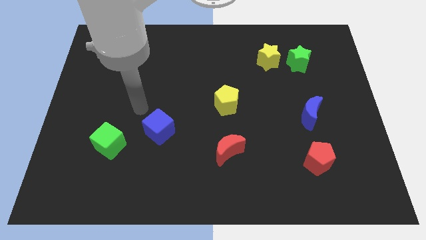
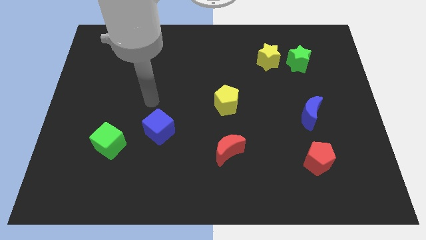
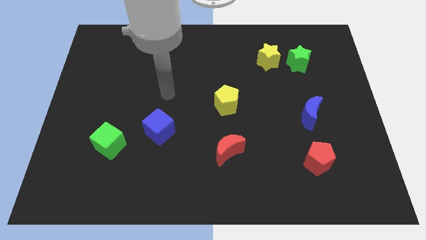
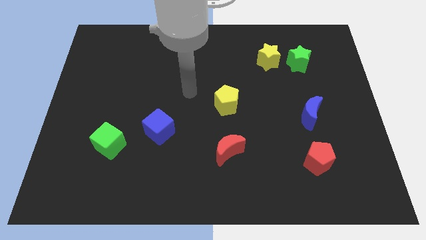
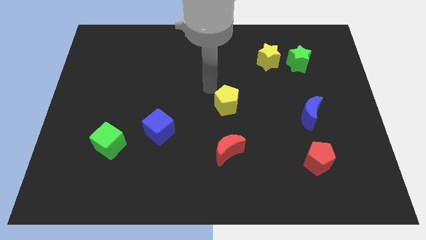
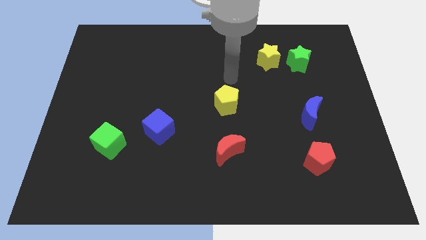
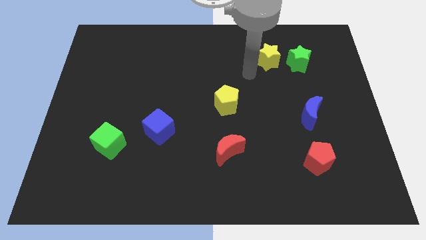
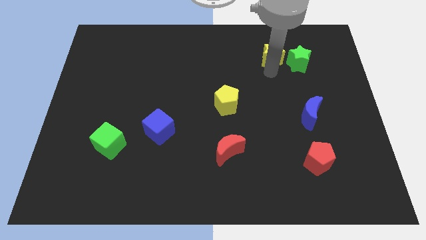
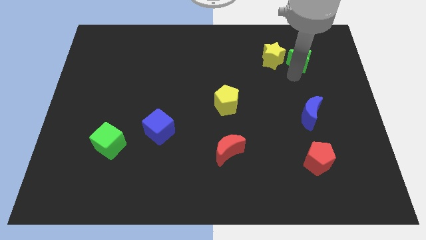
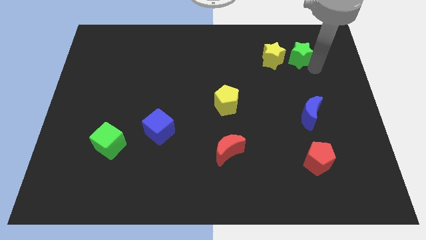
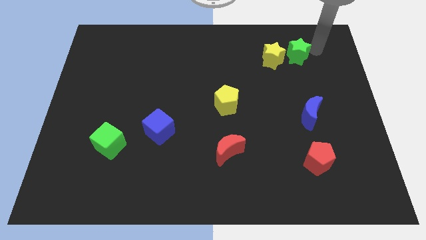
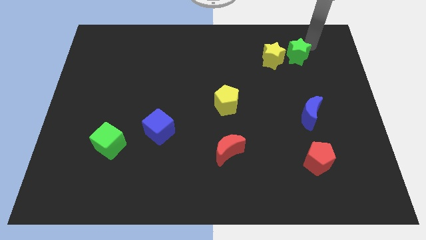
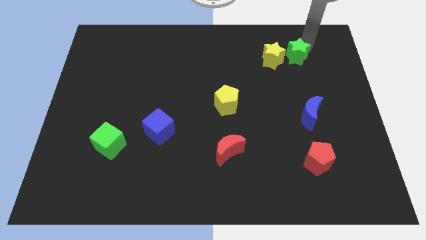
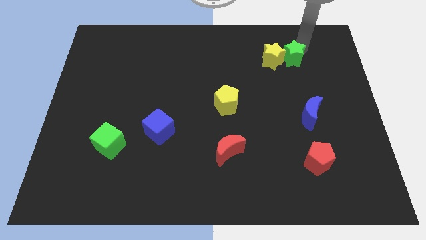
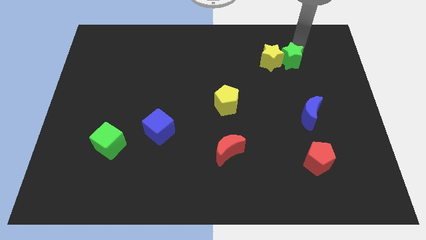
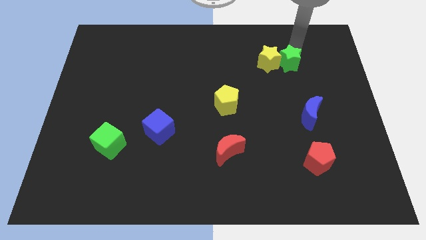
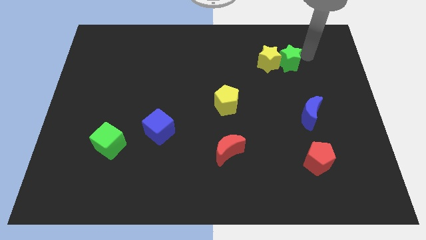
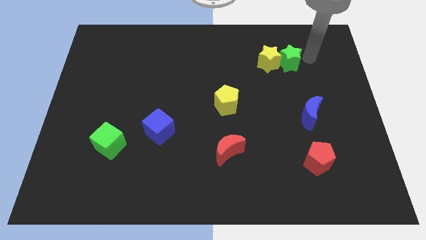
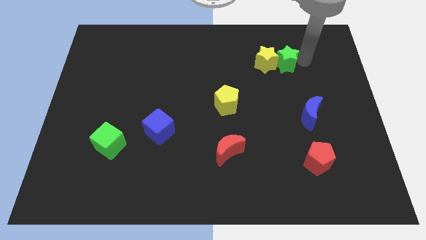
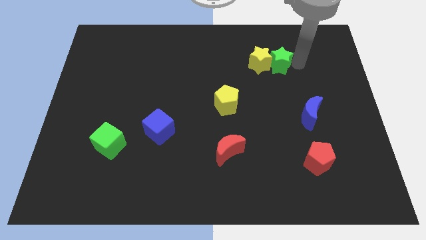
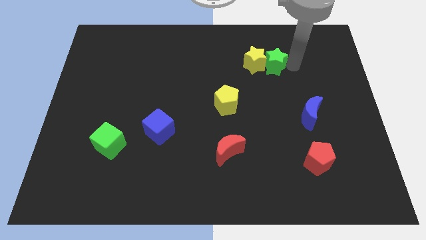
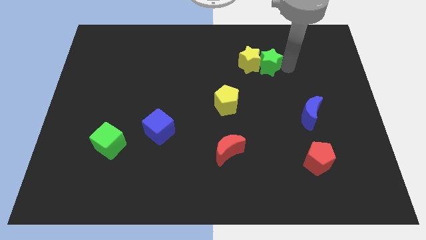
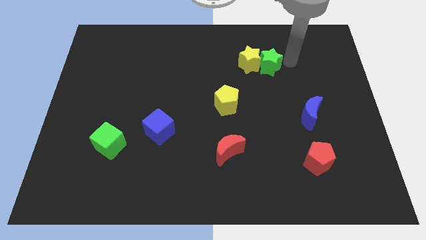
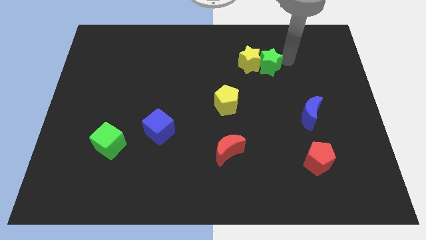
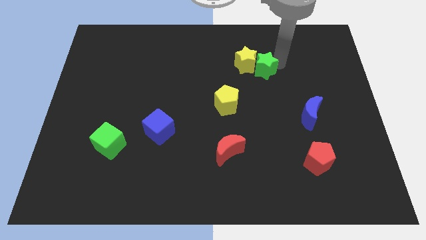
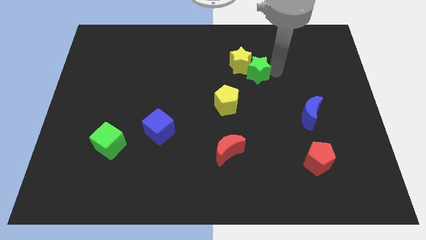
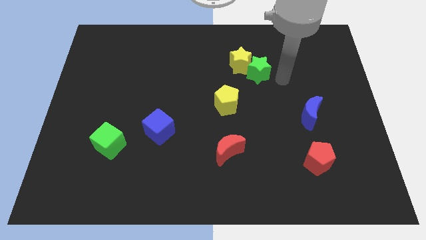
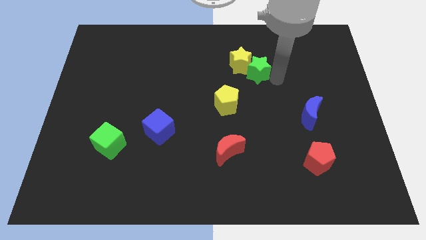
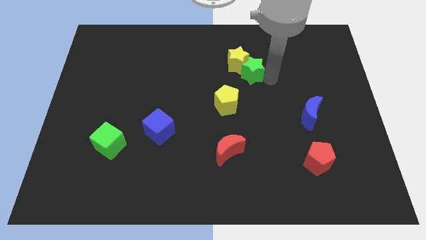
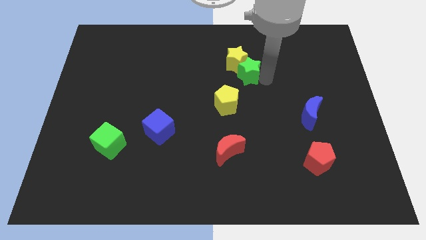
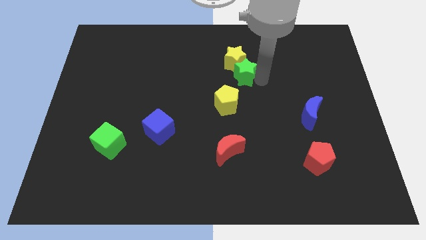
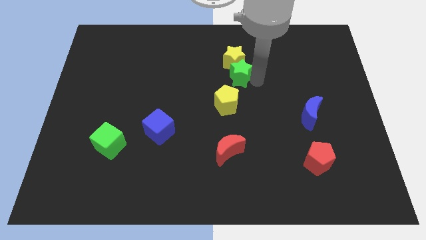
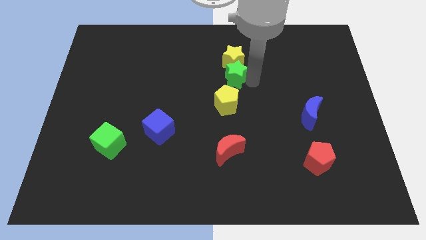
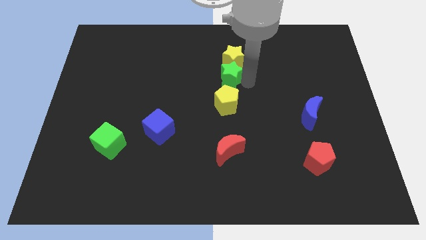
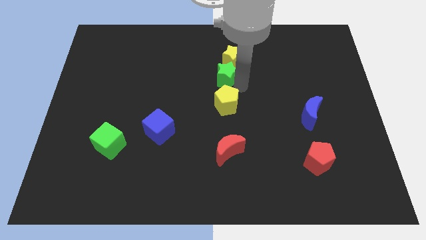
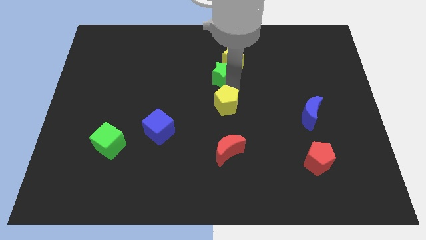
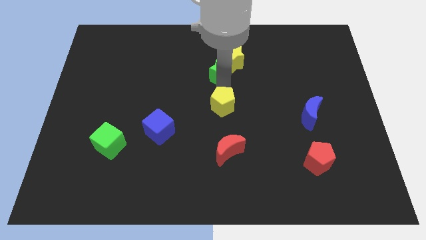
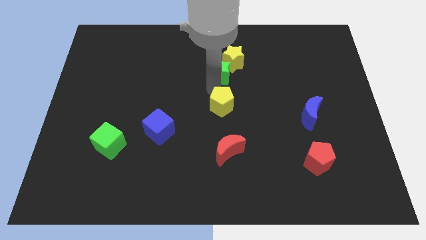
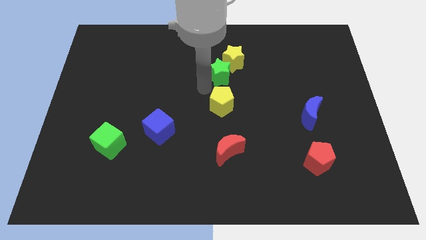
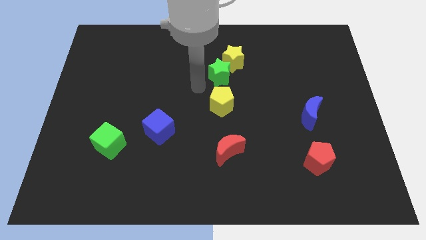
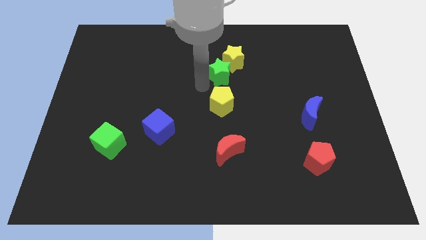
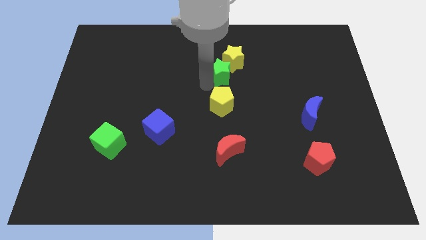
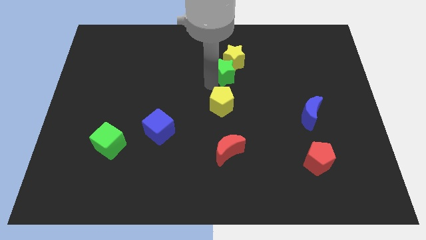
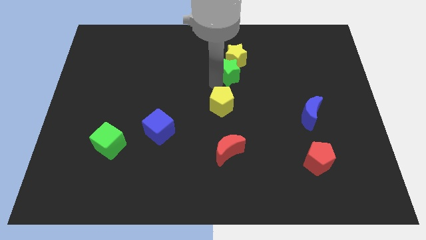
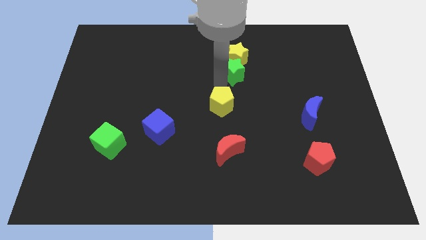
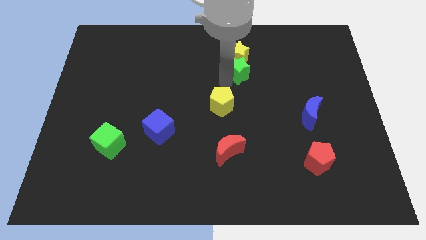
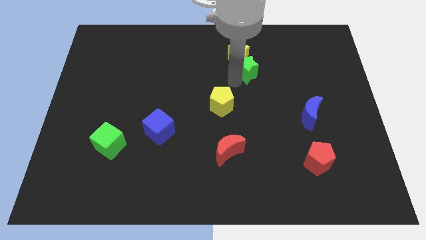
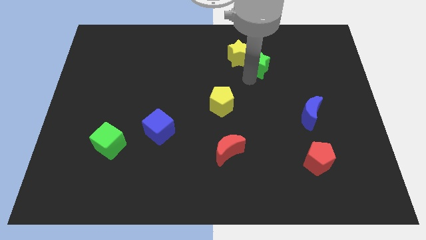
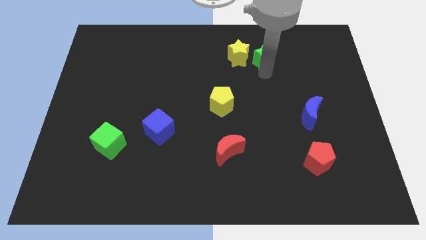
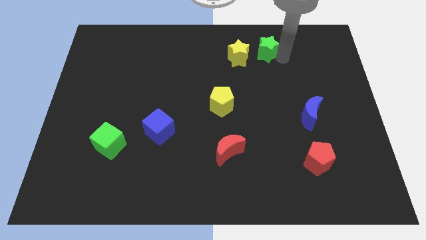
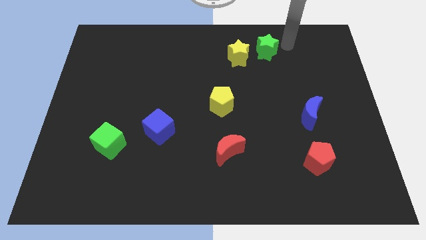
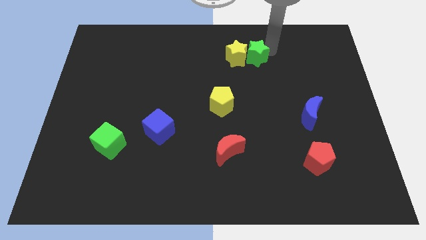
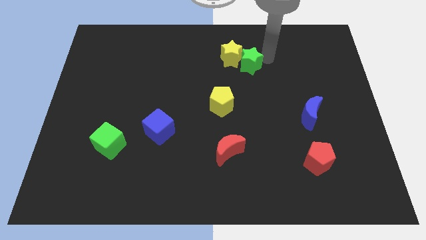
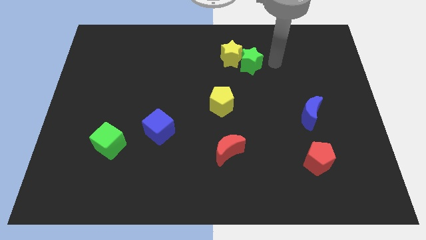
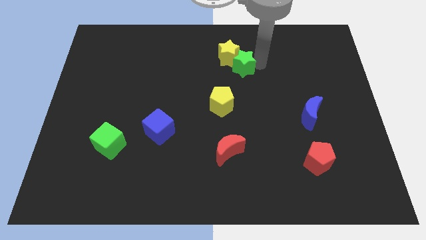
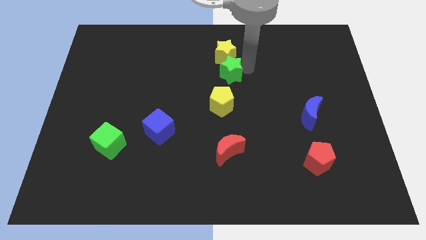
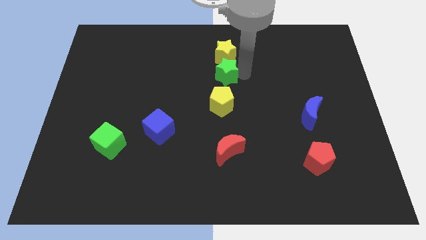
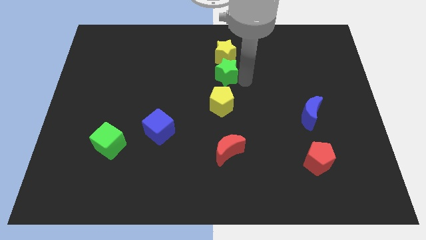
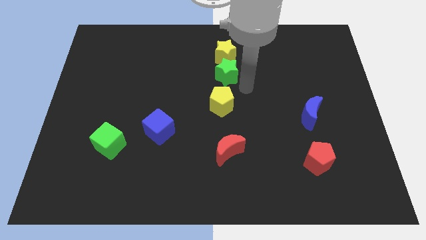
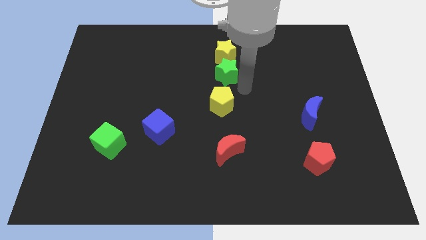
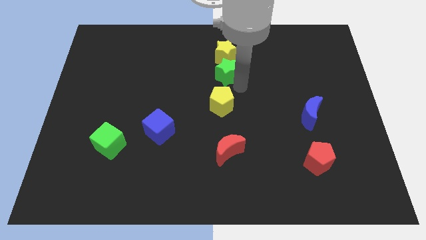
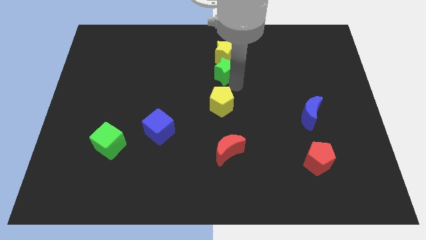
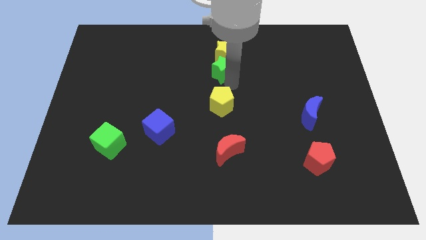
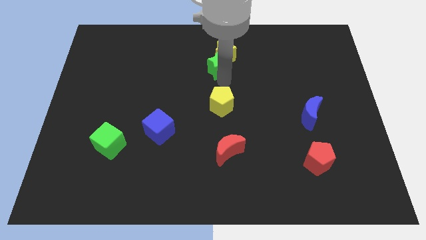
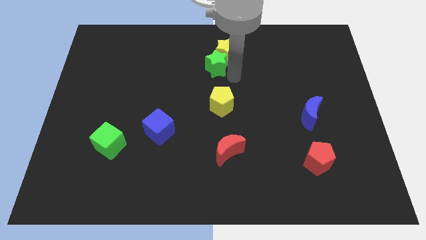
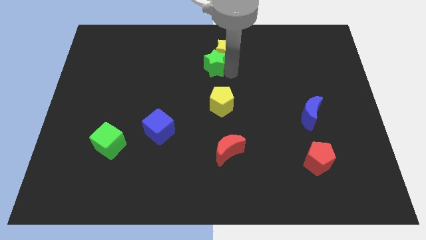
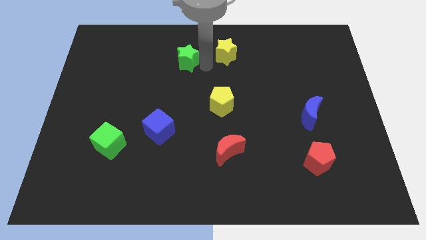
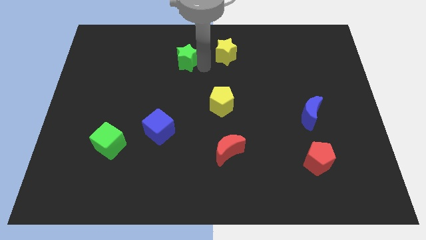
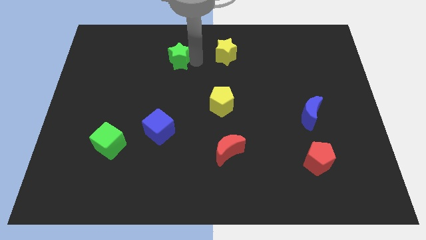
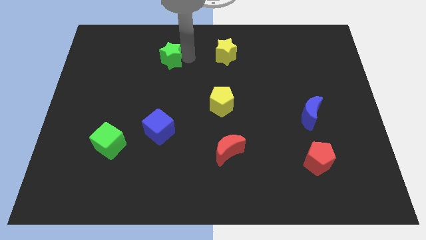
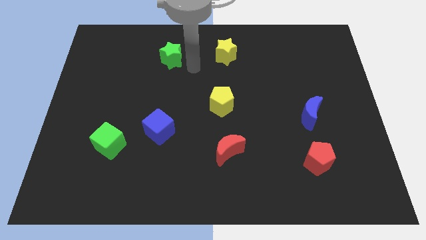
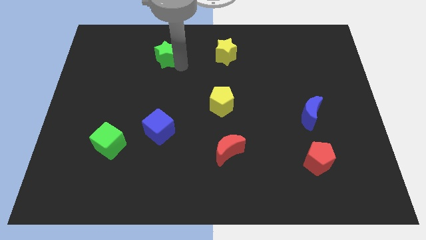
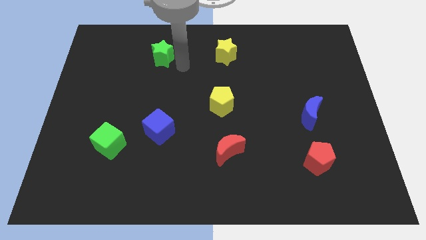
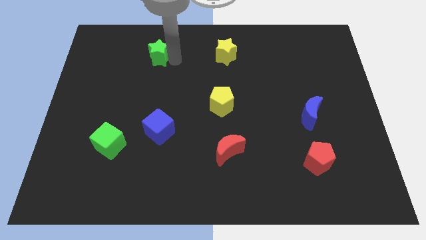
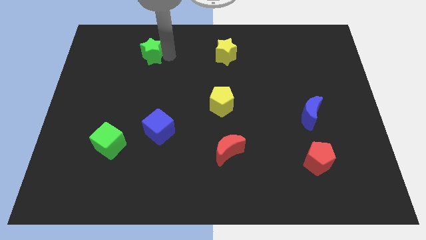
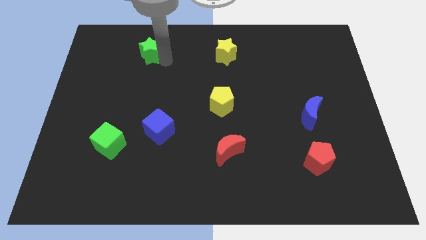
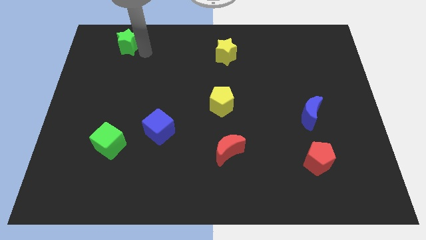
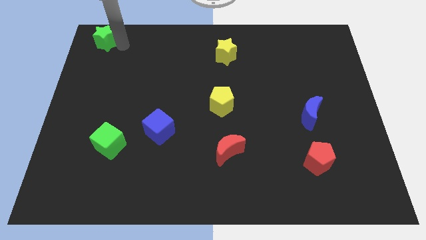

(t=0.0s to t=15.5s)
push the green star to the upper left corner
